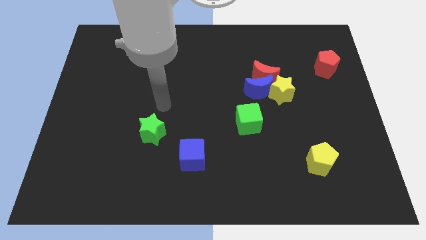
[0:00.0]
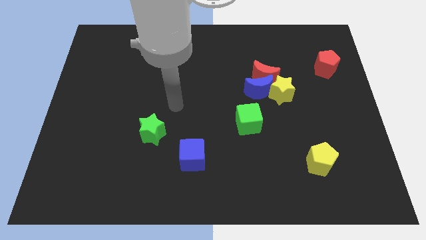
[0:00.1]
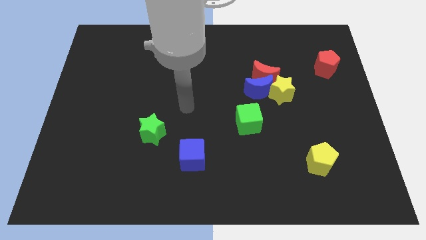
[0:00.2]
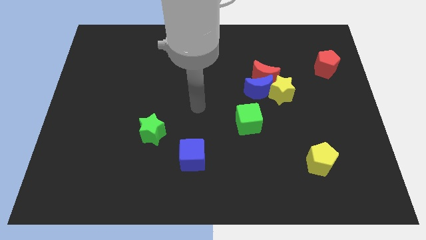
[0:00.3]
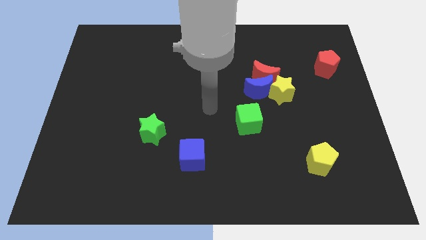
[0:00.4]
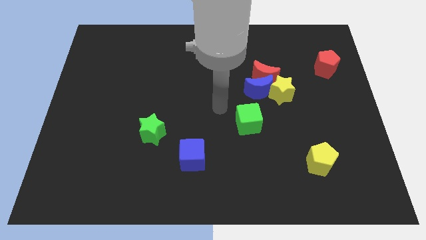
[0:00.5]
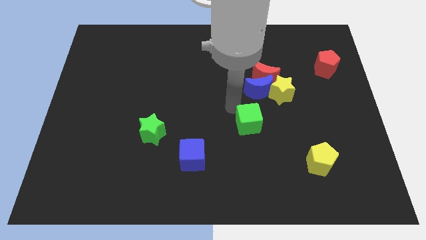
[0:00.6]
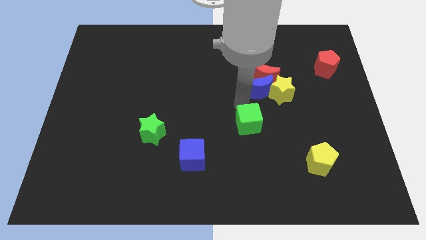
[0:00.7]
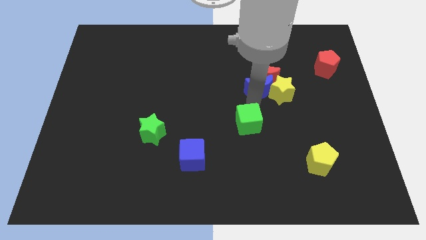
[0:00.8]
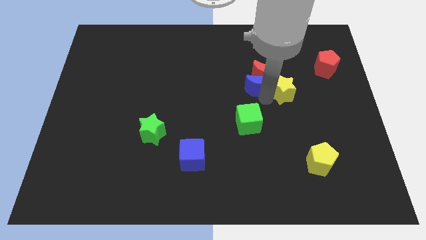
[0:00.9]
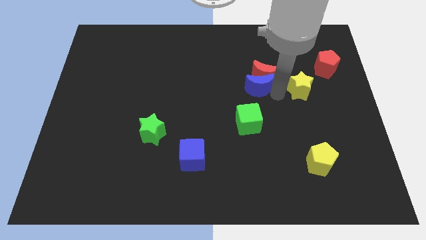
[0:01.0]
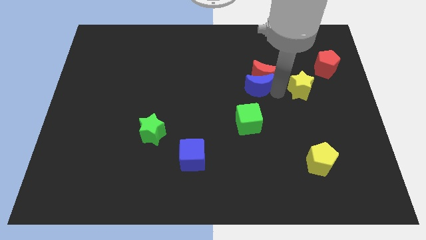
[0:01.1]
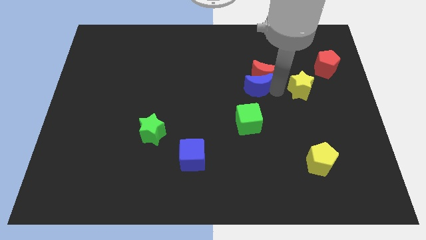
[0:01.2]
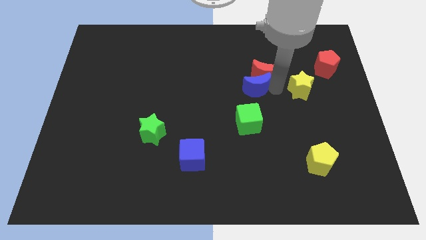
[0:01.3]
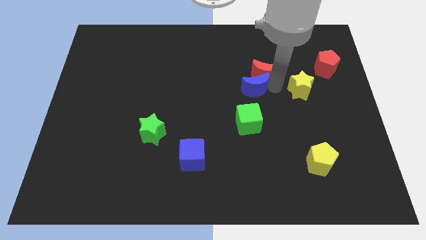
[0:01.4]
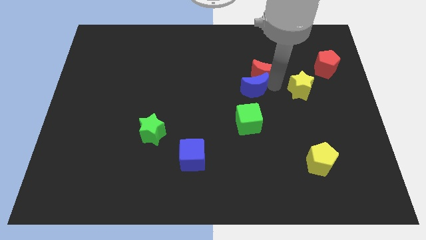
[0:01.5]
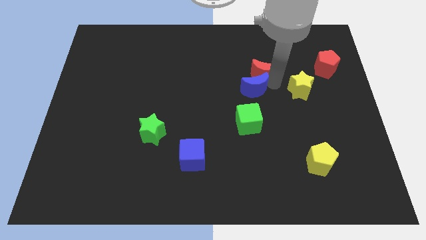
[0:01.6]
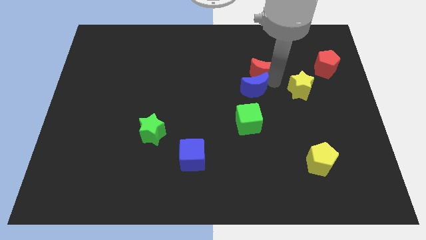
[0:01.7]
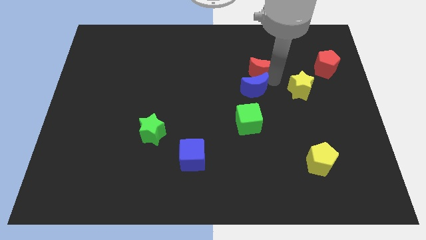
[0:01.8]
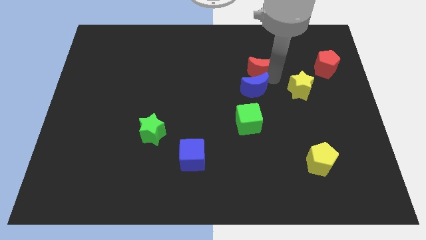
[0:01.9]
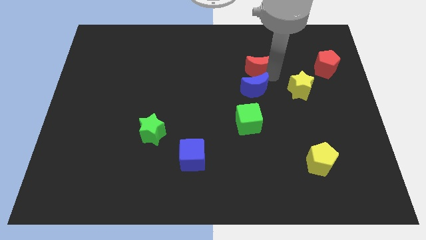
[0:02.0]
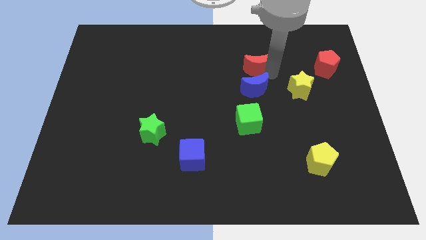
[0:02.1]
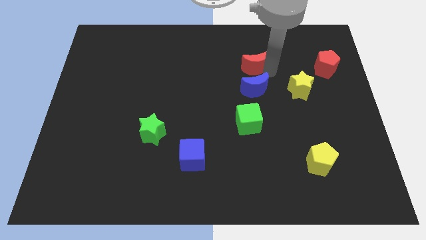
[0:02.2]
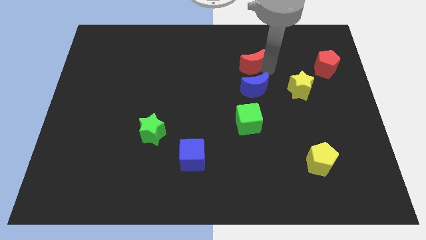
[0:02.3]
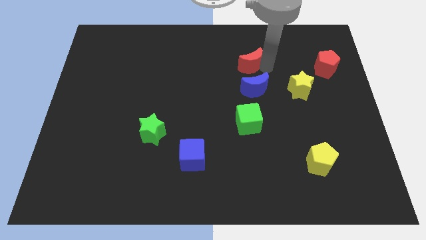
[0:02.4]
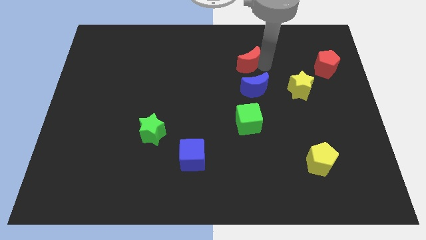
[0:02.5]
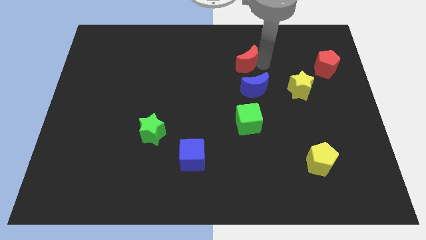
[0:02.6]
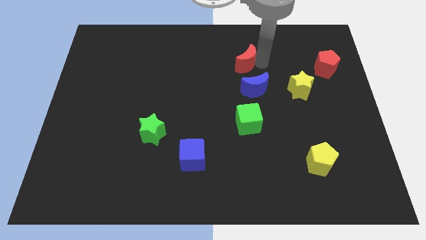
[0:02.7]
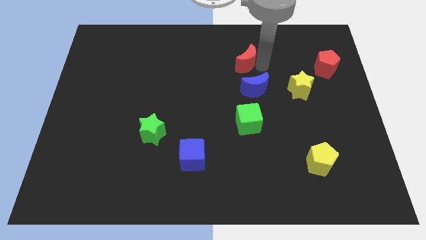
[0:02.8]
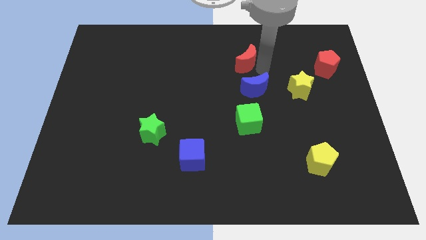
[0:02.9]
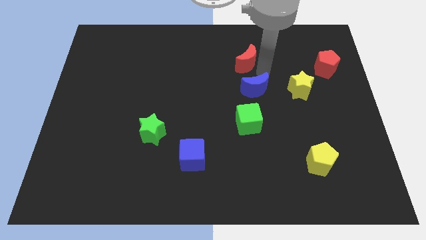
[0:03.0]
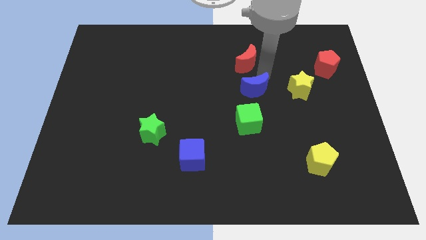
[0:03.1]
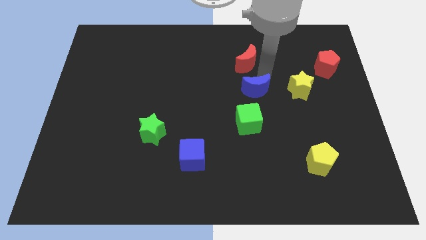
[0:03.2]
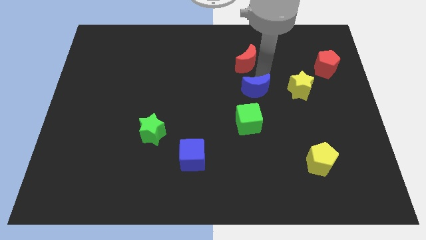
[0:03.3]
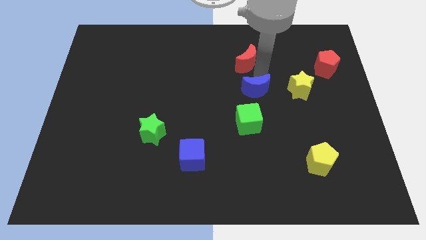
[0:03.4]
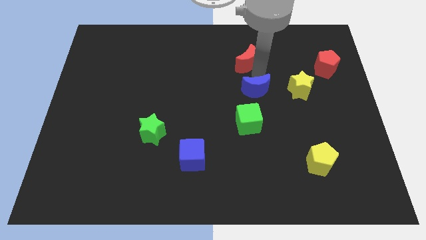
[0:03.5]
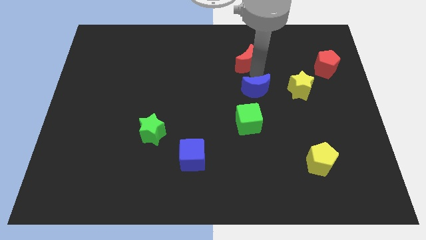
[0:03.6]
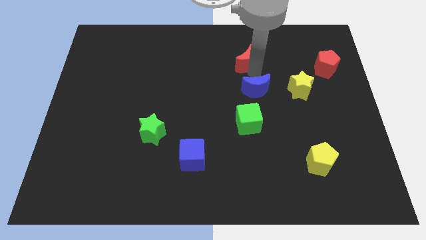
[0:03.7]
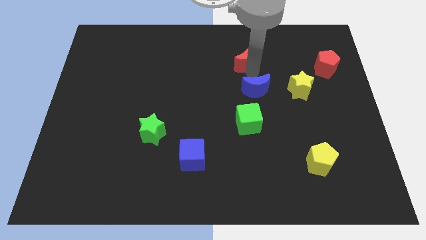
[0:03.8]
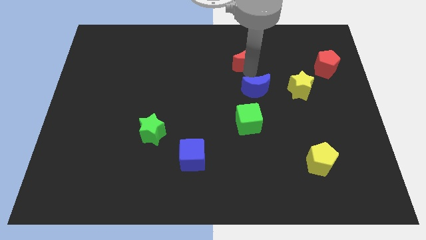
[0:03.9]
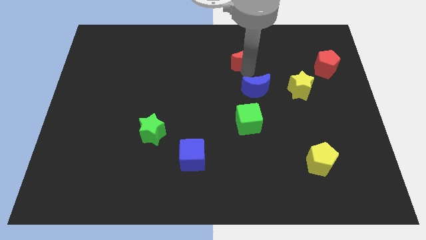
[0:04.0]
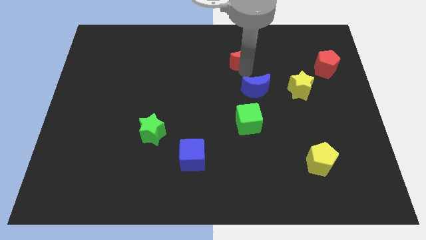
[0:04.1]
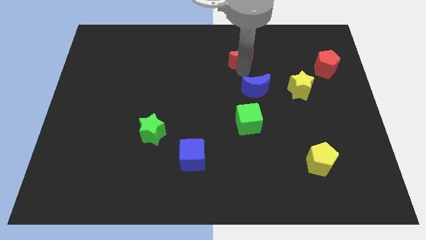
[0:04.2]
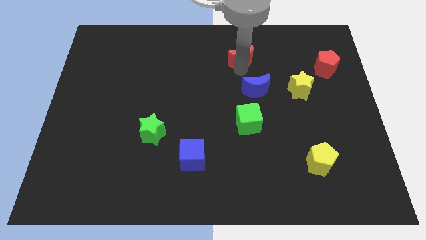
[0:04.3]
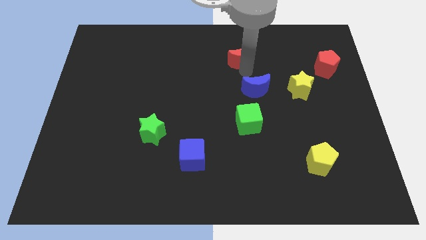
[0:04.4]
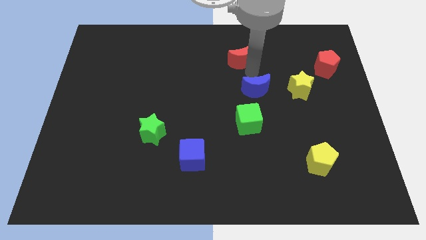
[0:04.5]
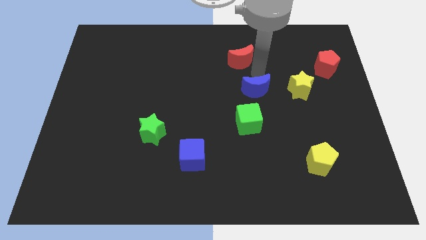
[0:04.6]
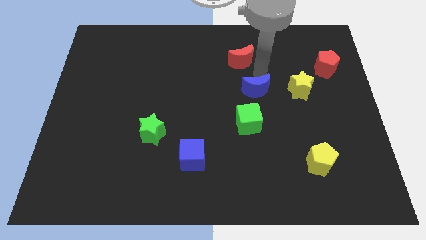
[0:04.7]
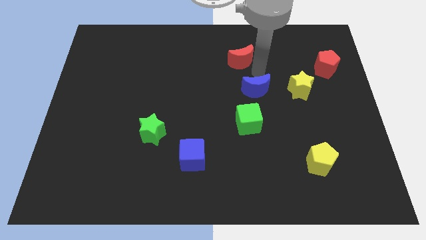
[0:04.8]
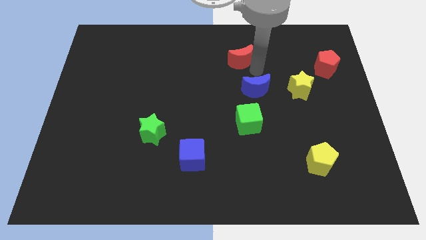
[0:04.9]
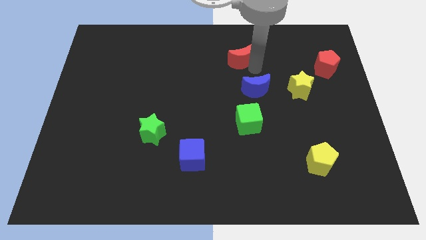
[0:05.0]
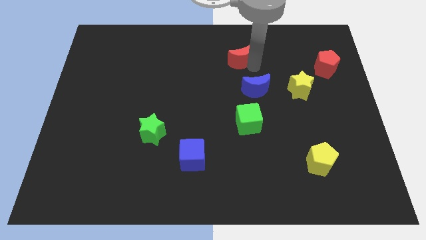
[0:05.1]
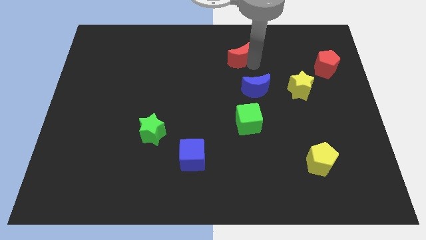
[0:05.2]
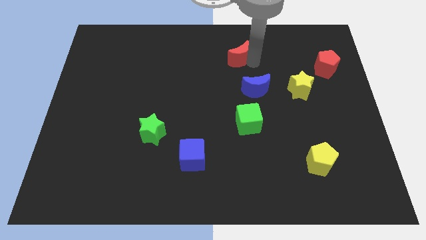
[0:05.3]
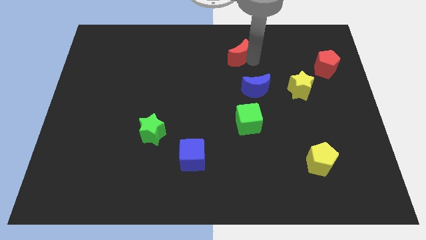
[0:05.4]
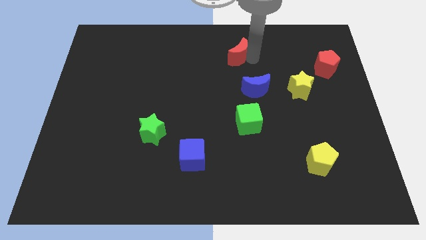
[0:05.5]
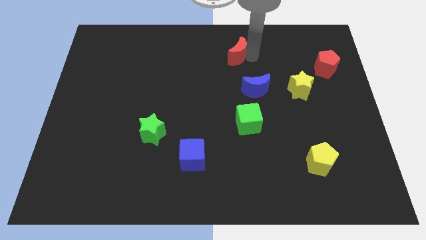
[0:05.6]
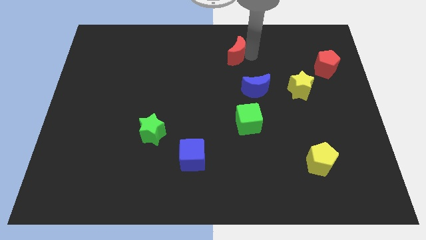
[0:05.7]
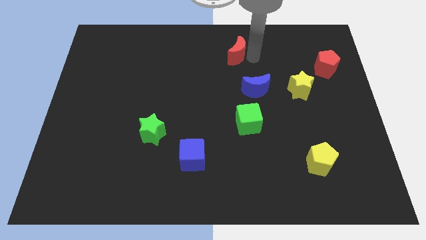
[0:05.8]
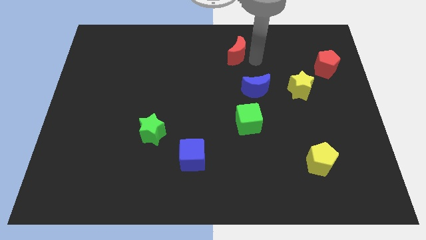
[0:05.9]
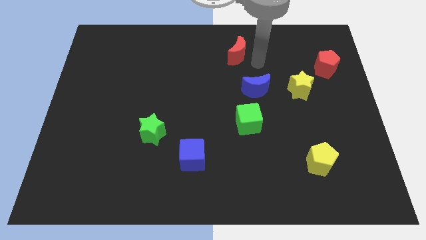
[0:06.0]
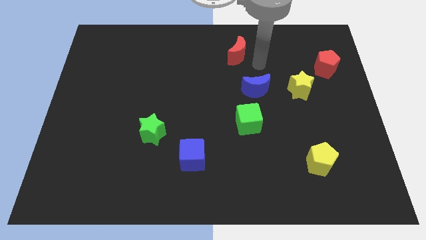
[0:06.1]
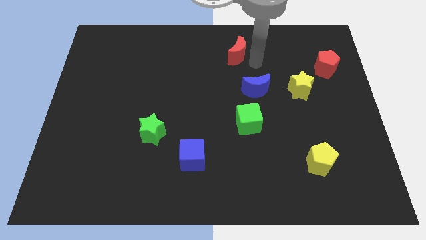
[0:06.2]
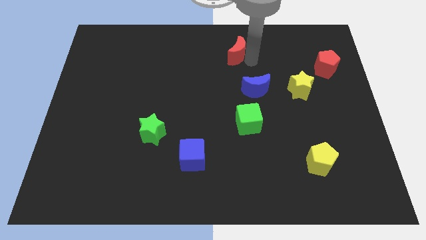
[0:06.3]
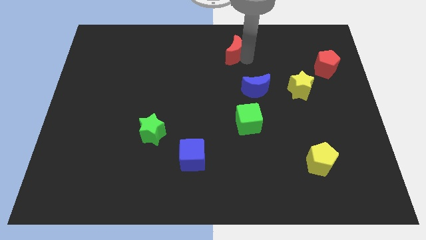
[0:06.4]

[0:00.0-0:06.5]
push the red moon to the top side
